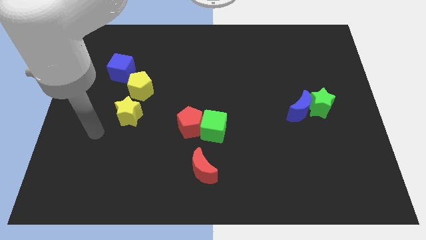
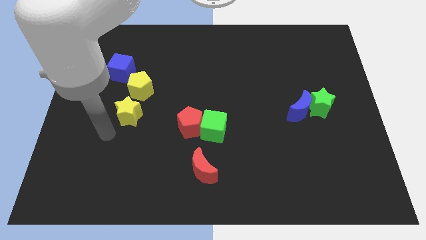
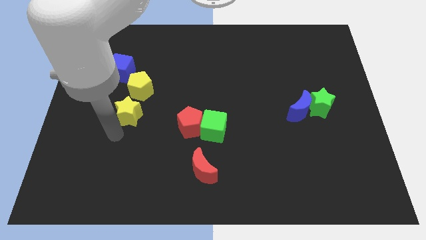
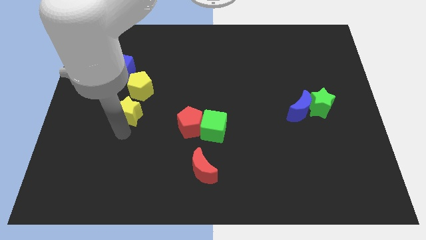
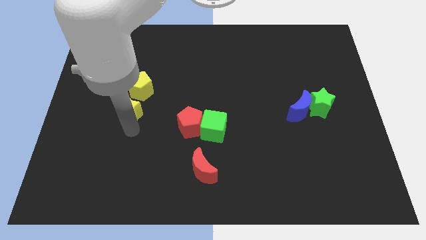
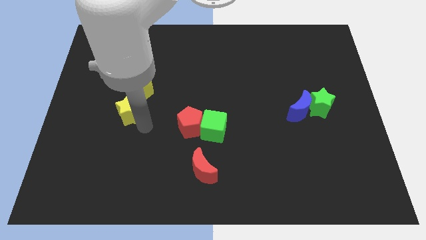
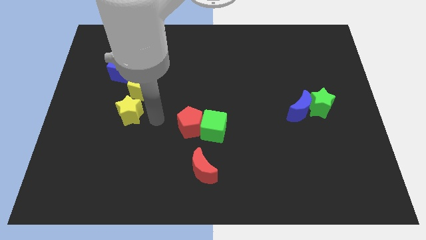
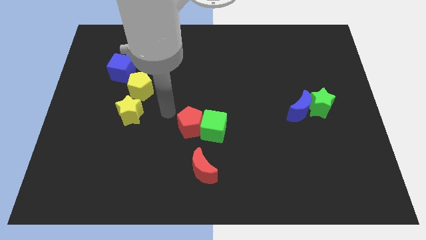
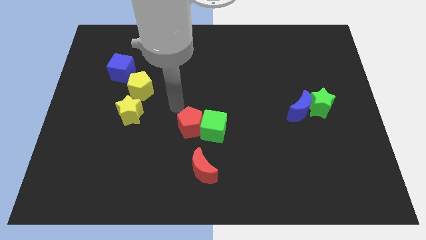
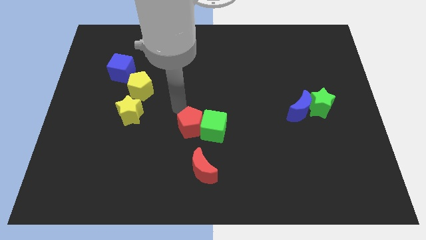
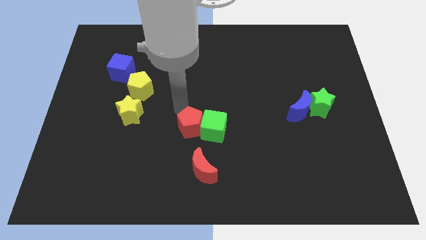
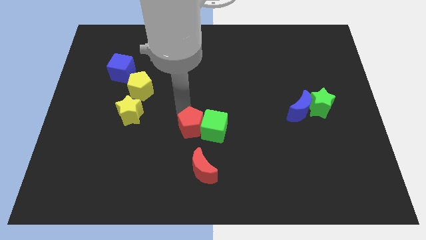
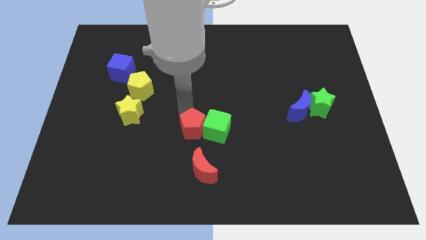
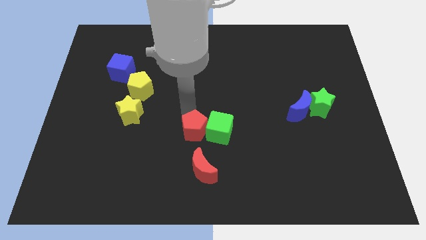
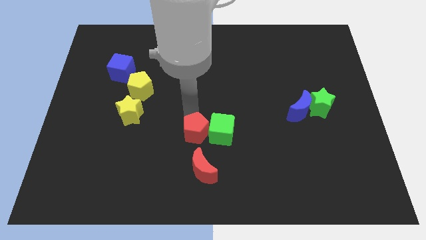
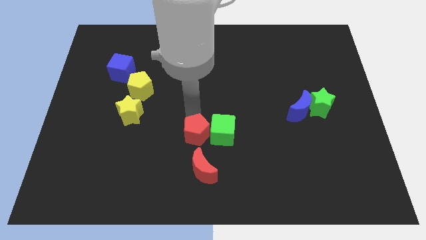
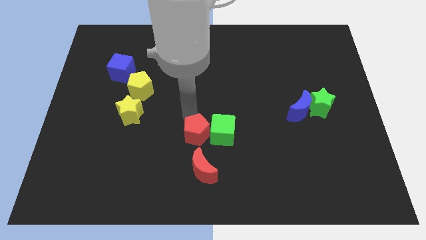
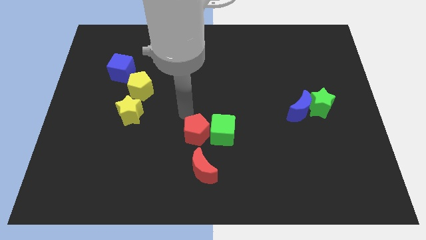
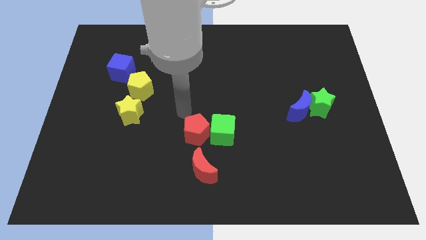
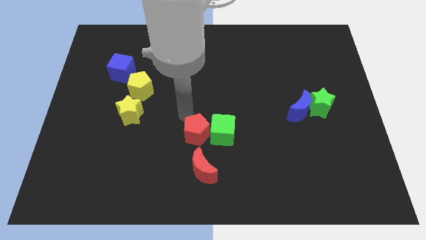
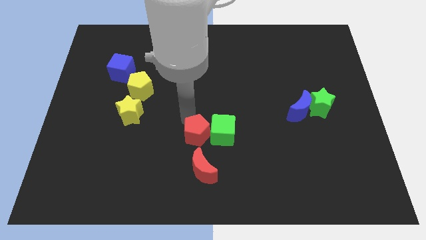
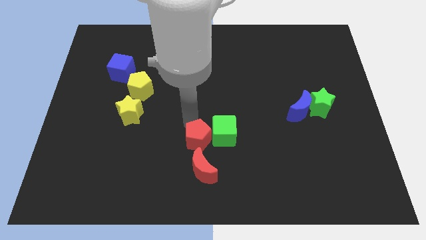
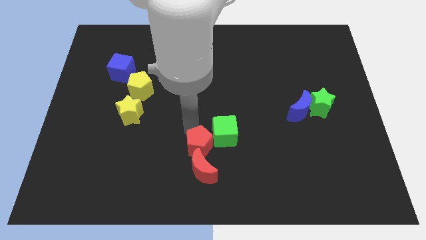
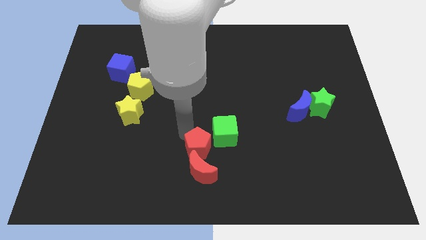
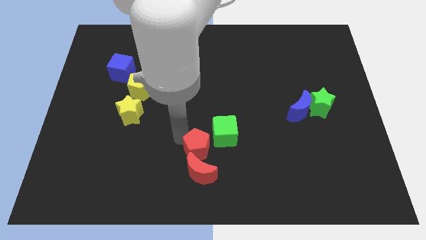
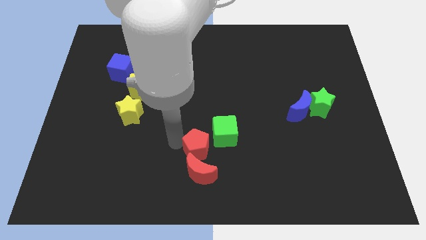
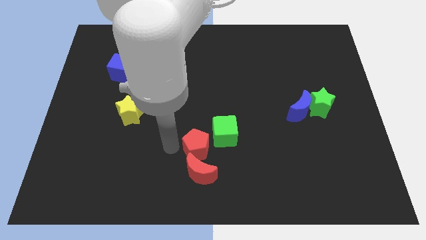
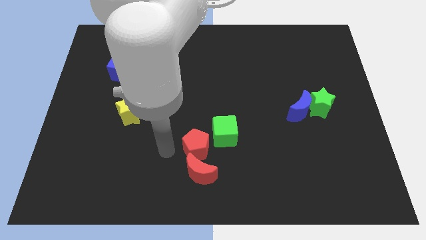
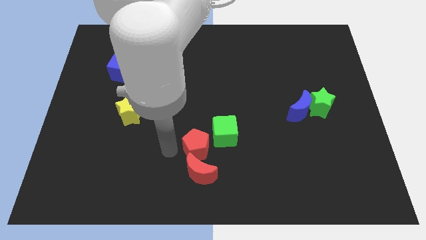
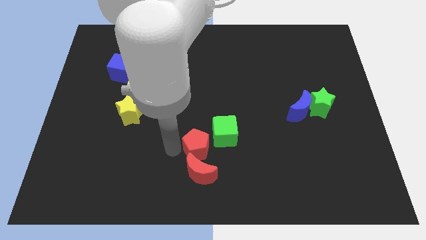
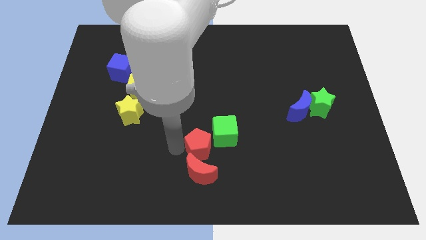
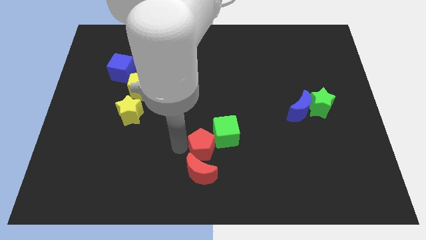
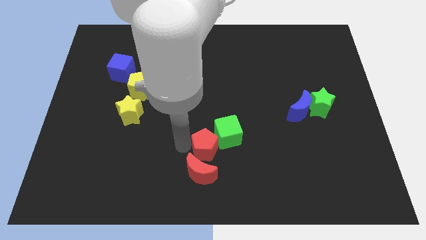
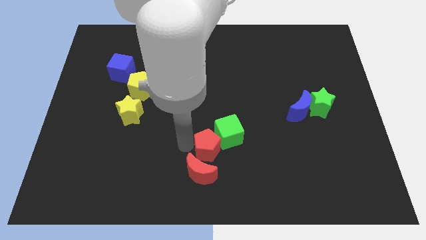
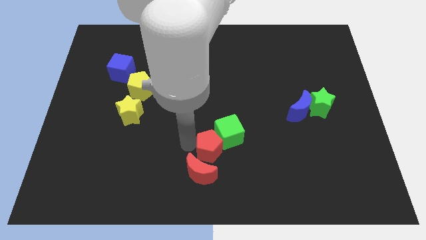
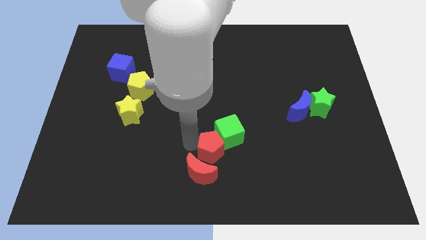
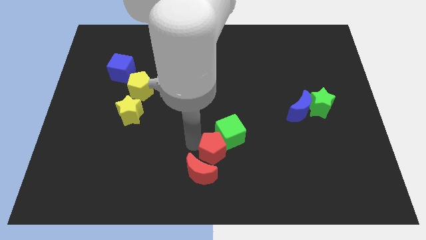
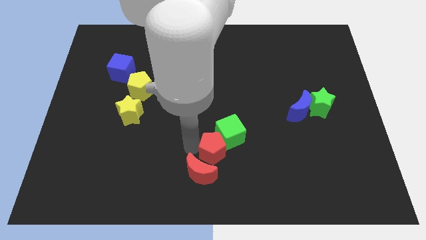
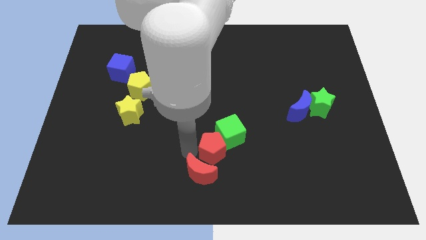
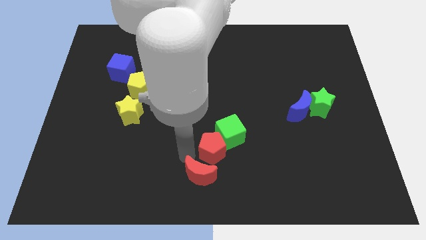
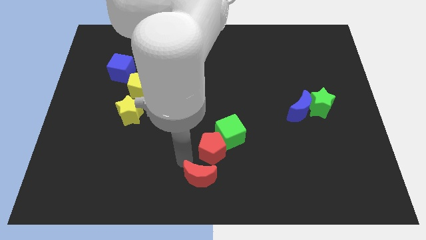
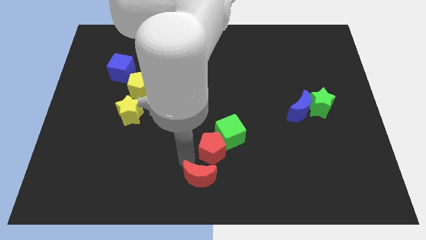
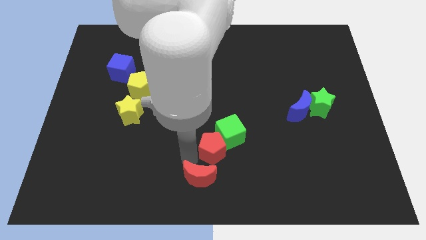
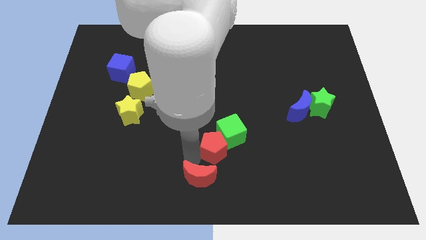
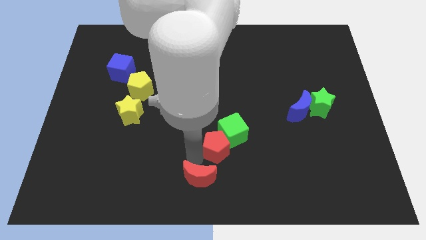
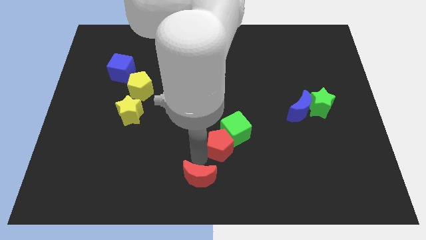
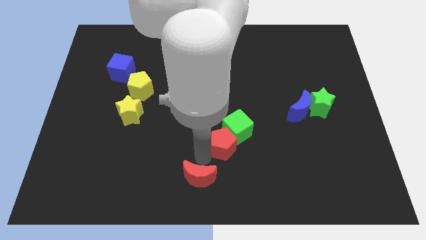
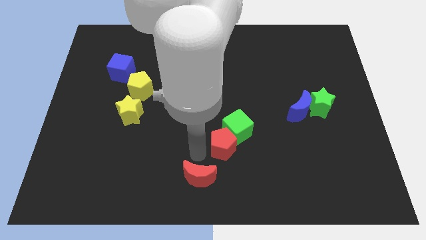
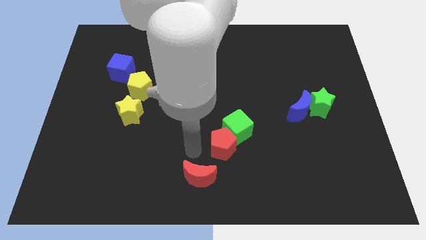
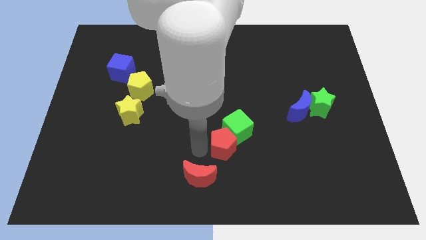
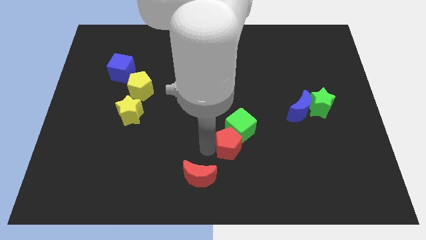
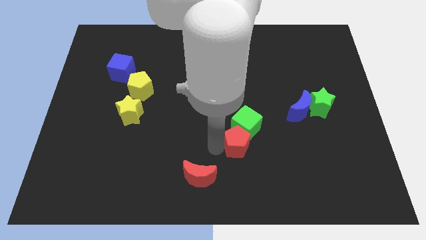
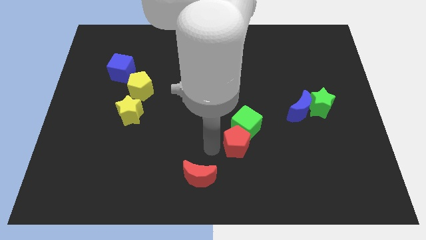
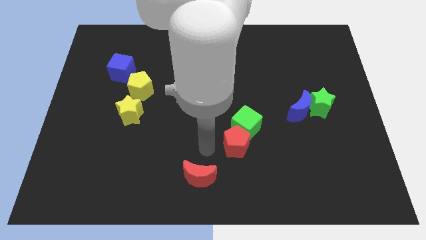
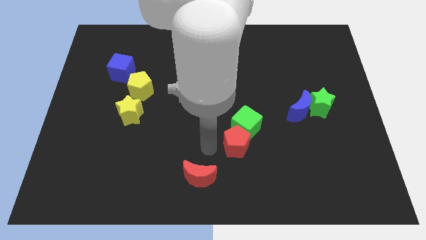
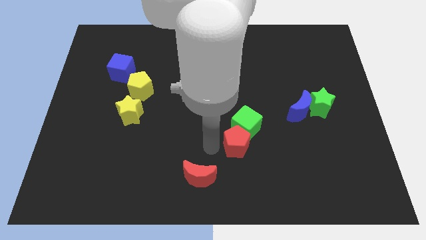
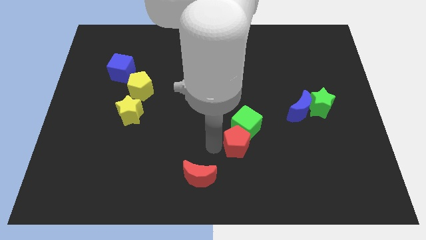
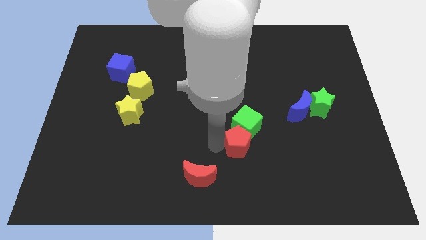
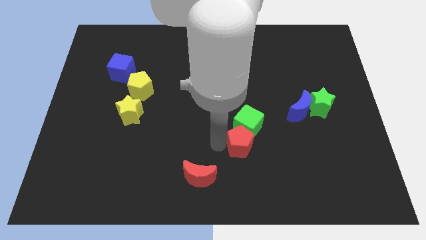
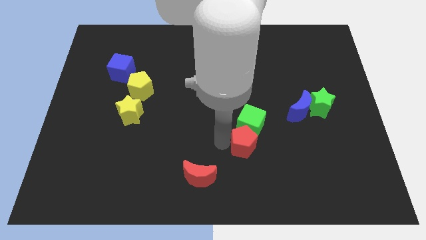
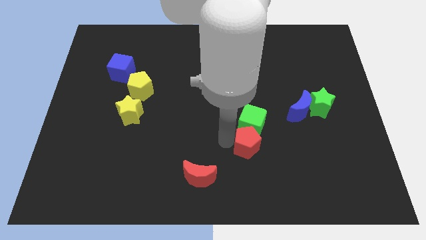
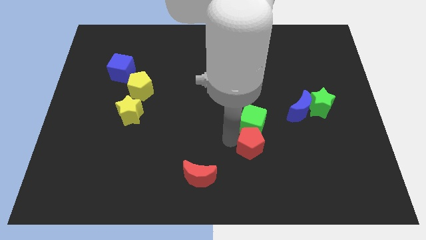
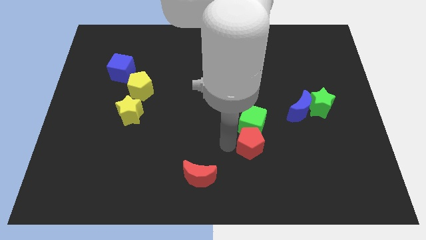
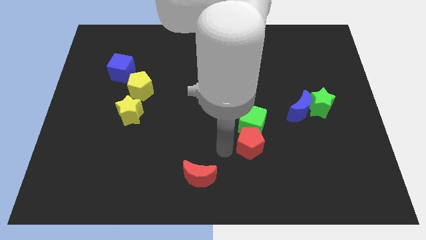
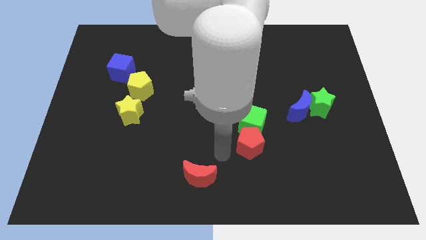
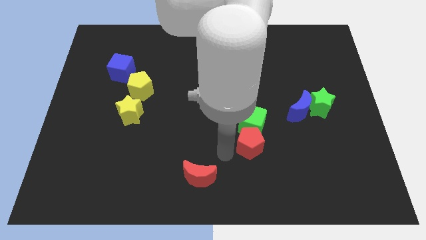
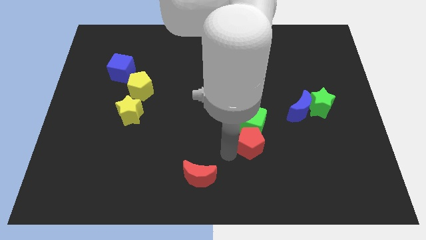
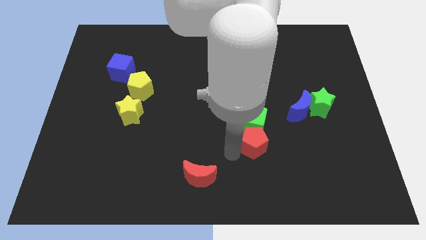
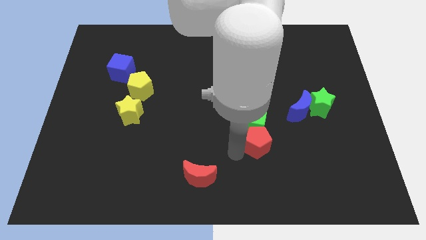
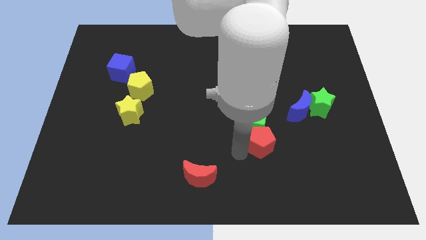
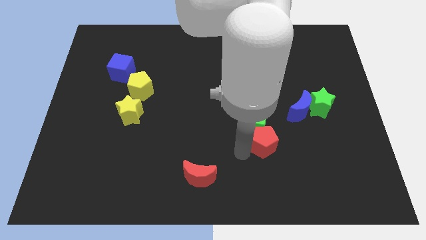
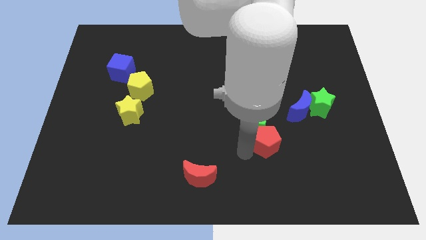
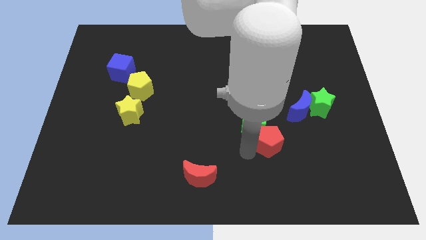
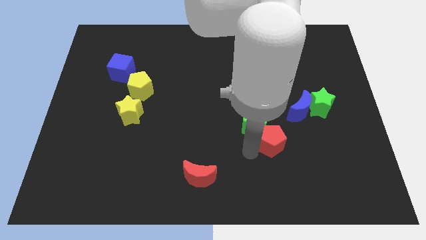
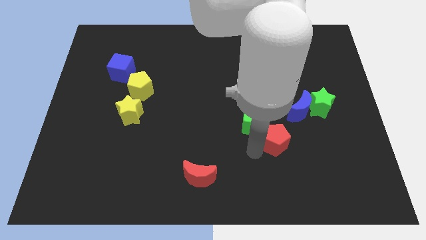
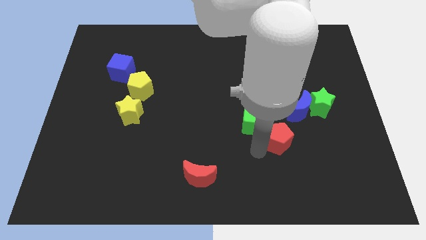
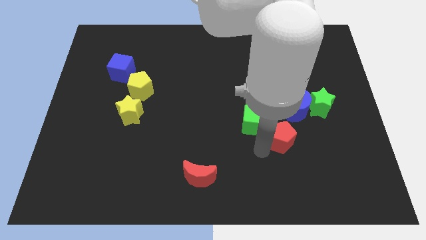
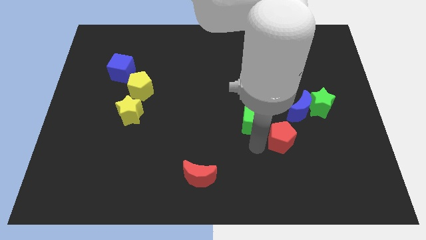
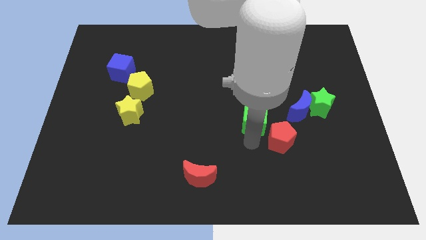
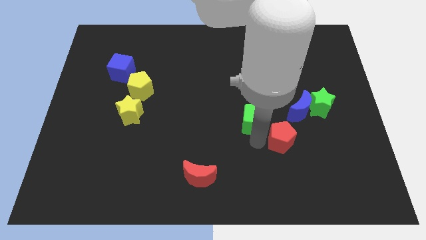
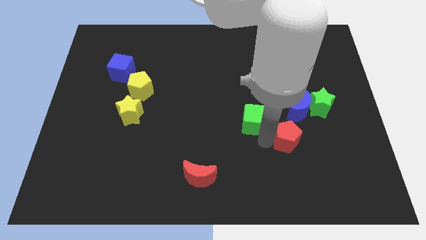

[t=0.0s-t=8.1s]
slide the red pentagon to the right
